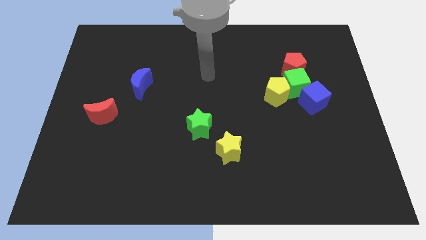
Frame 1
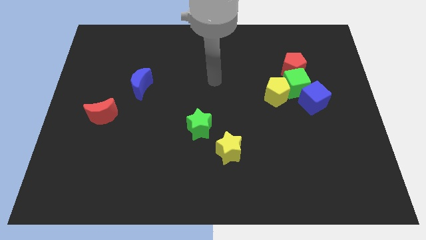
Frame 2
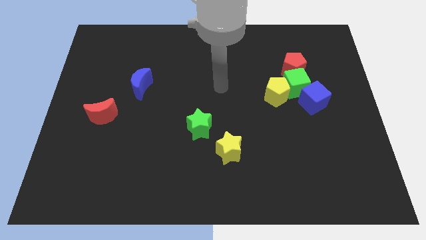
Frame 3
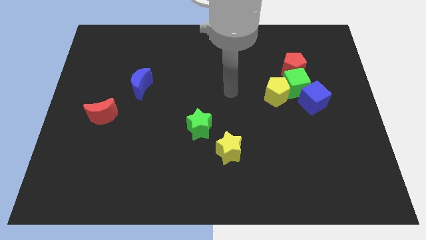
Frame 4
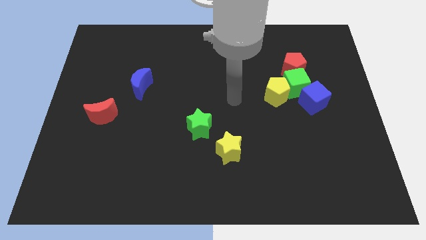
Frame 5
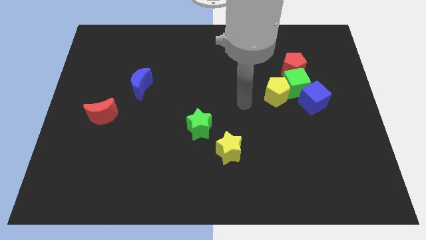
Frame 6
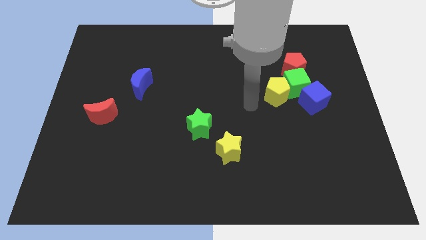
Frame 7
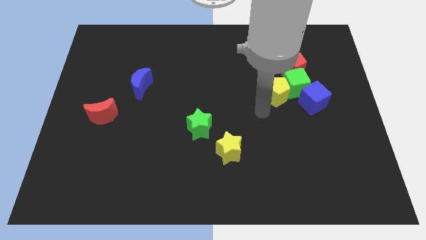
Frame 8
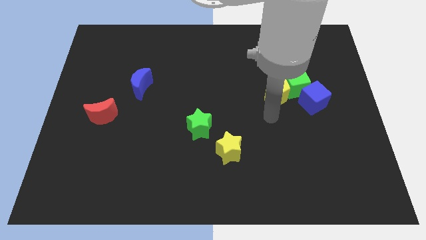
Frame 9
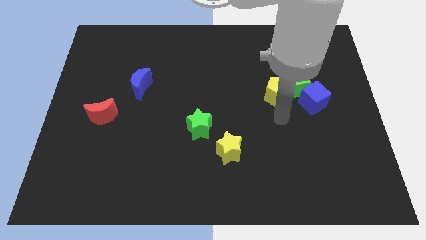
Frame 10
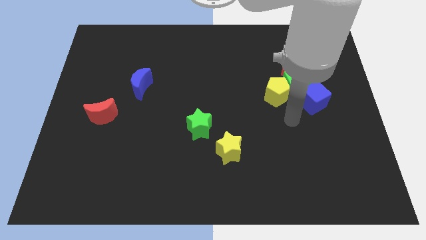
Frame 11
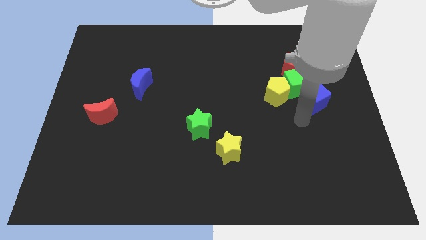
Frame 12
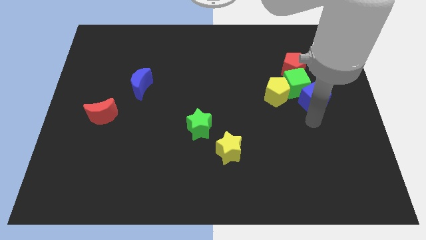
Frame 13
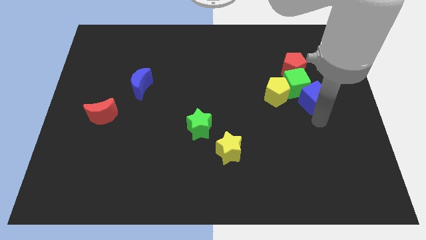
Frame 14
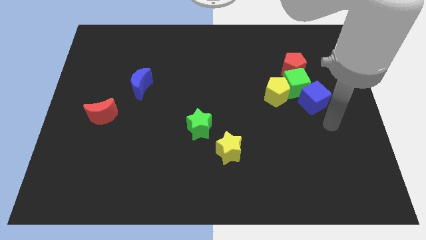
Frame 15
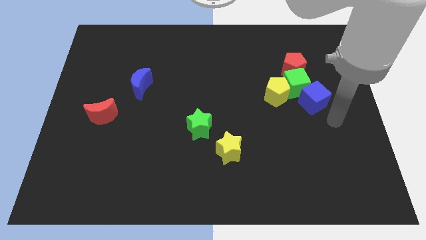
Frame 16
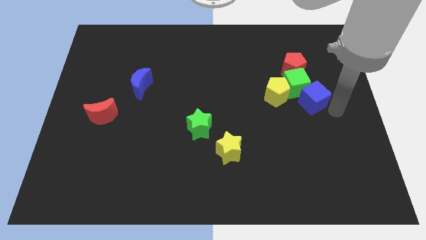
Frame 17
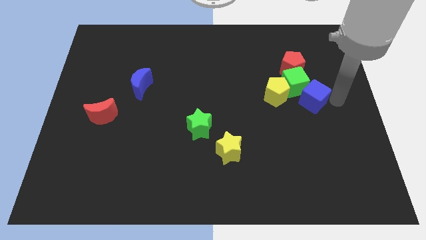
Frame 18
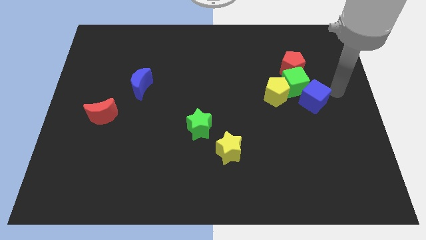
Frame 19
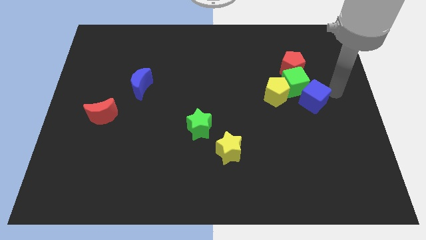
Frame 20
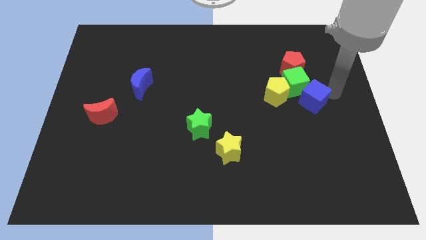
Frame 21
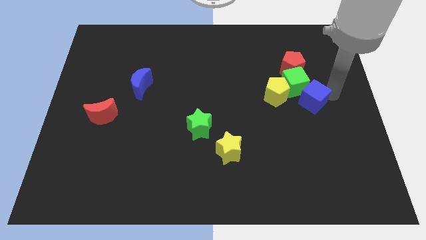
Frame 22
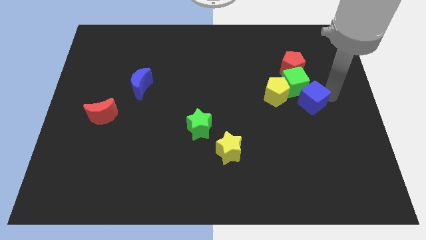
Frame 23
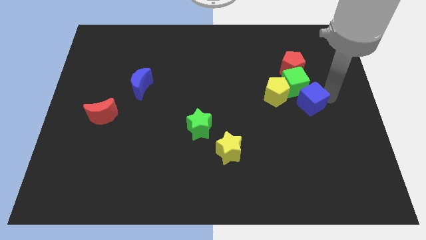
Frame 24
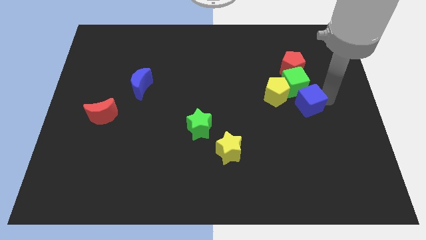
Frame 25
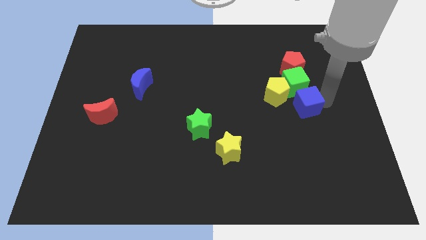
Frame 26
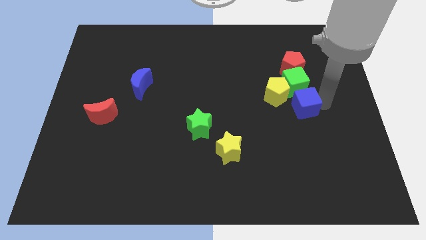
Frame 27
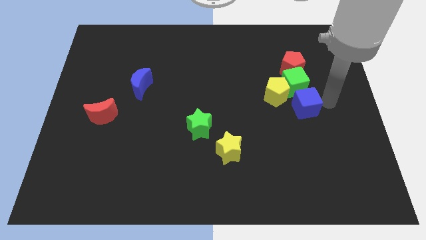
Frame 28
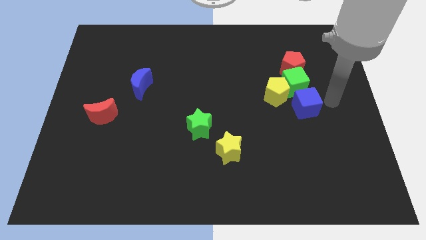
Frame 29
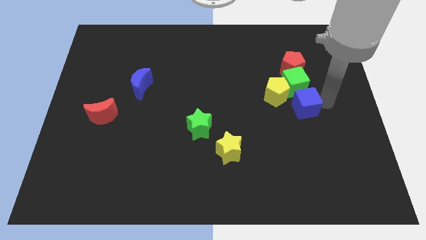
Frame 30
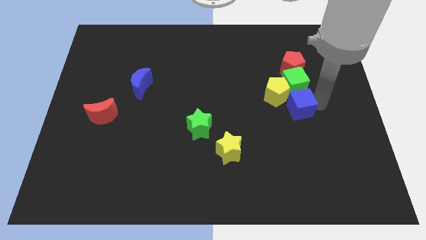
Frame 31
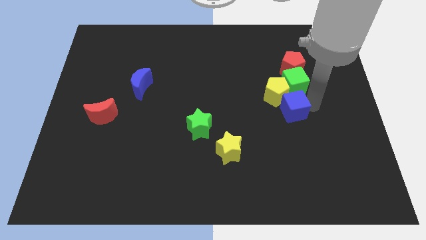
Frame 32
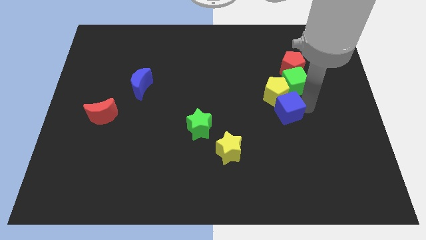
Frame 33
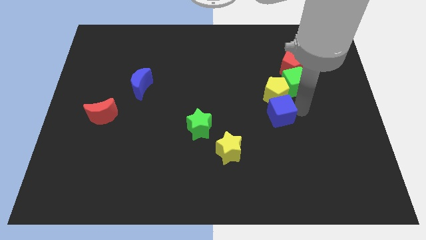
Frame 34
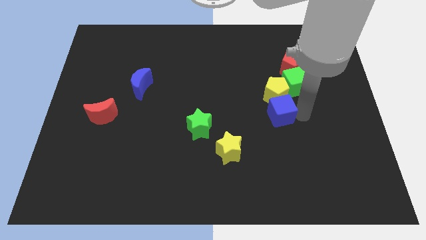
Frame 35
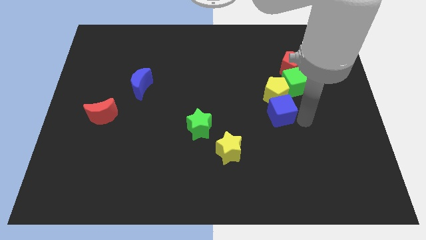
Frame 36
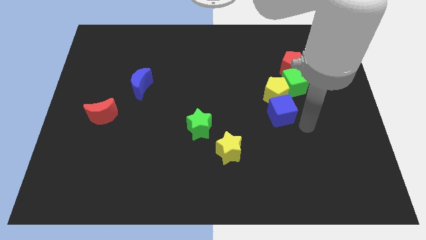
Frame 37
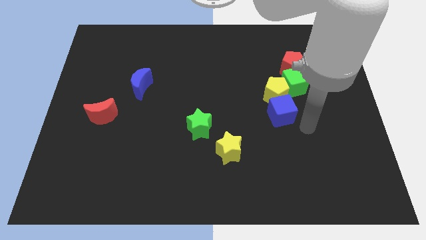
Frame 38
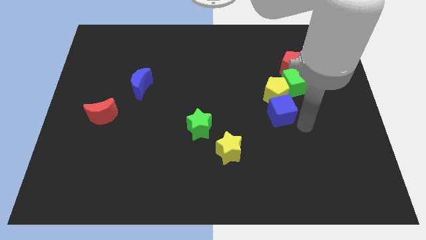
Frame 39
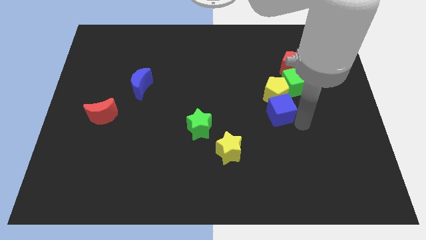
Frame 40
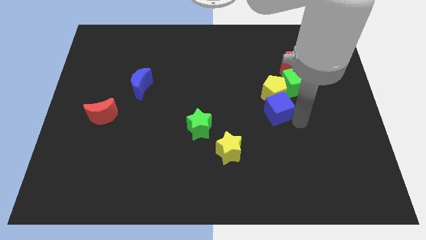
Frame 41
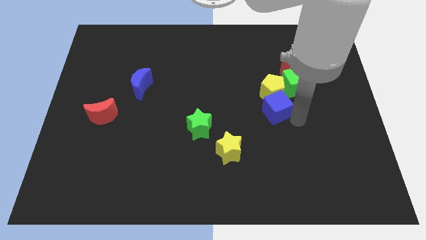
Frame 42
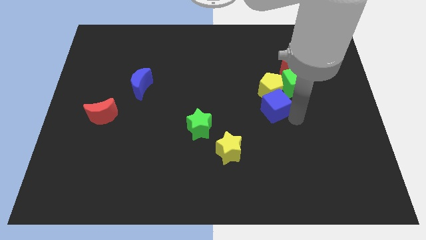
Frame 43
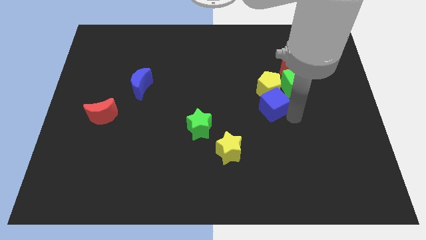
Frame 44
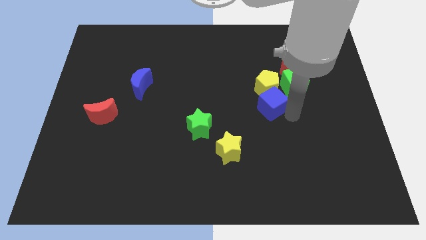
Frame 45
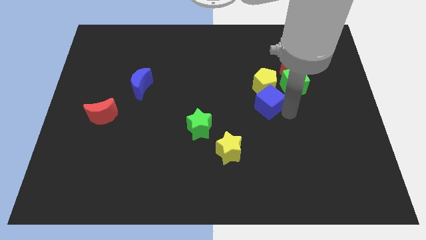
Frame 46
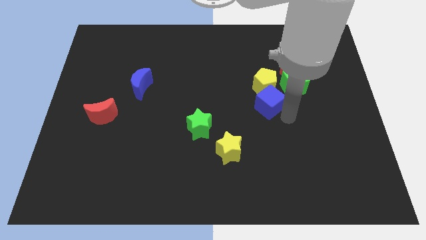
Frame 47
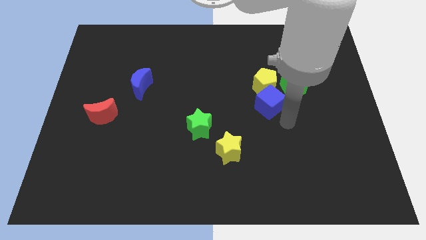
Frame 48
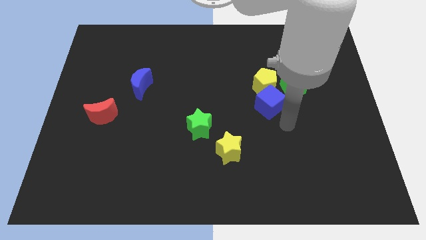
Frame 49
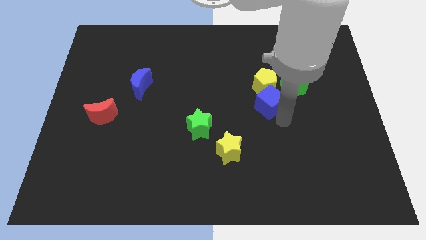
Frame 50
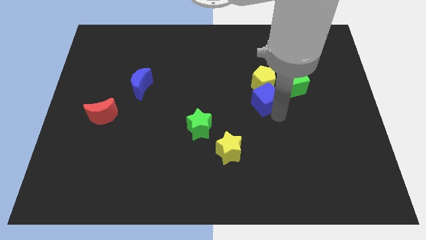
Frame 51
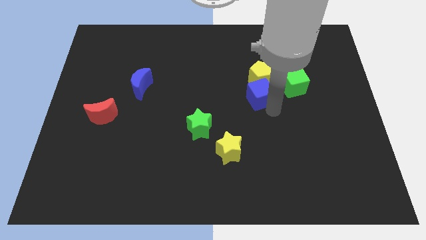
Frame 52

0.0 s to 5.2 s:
put the blue cube to the left side of the green cube

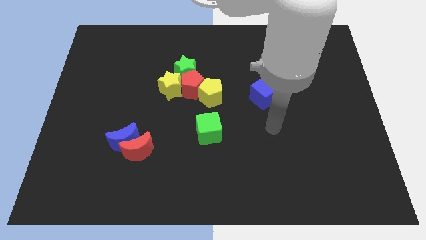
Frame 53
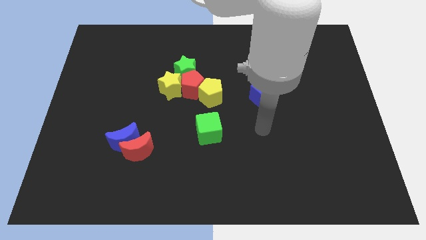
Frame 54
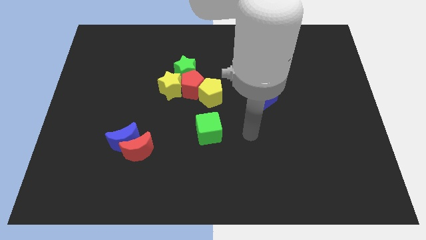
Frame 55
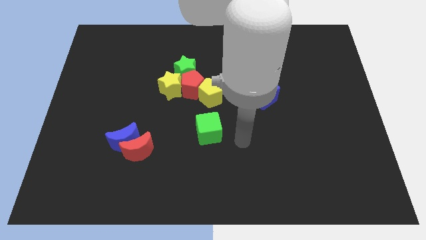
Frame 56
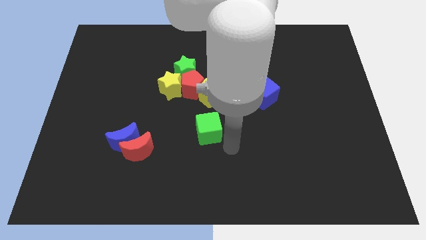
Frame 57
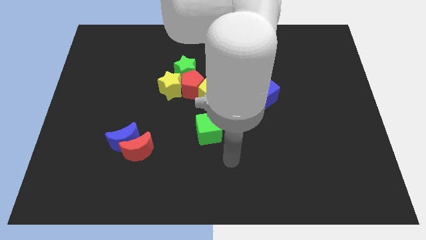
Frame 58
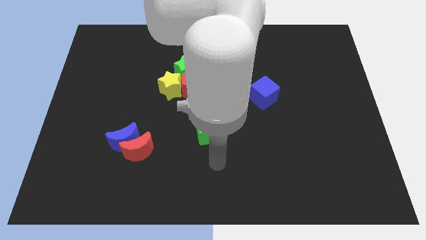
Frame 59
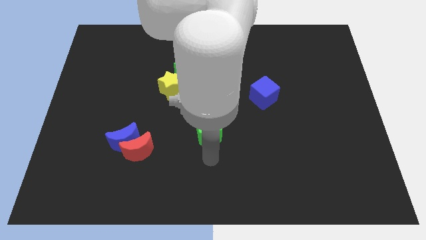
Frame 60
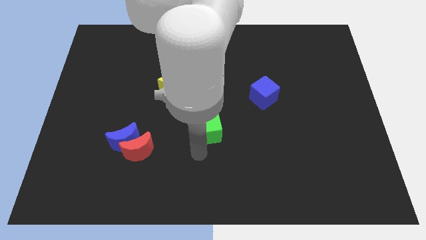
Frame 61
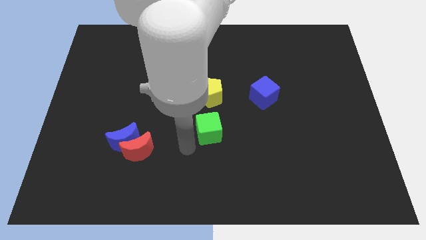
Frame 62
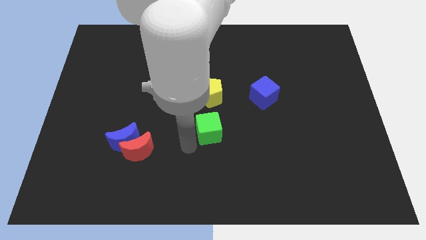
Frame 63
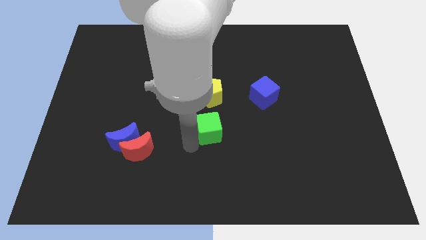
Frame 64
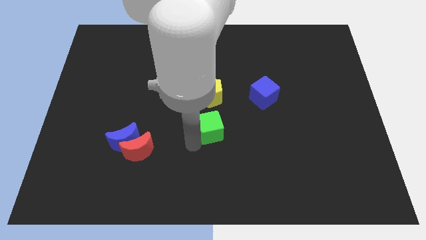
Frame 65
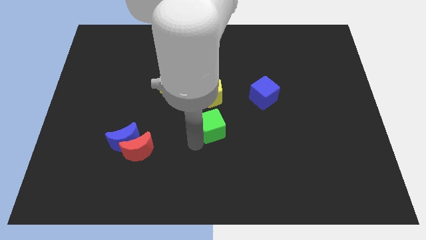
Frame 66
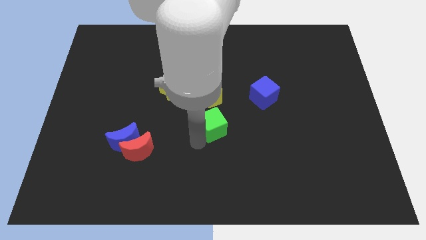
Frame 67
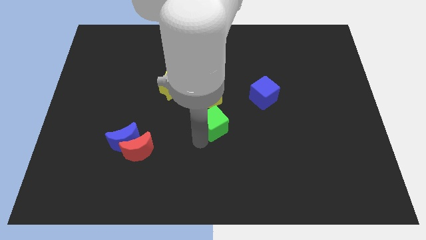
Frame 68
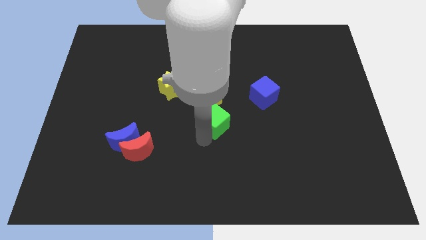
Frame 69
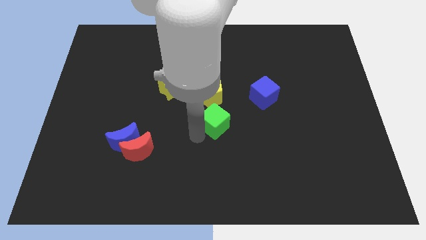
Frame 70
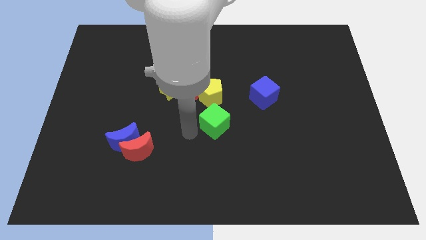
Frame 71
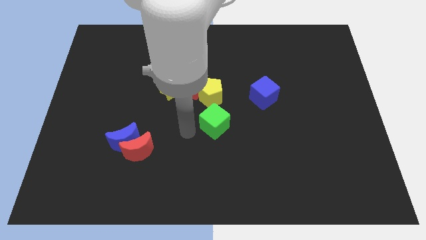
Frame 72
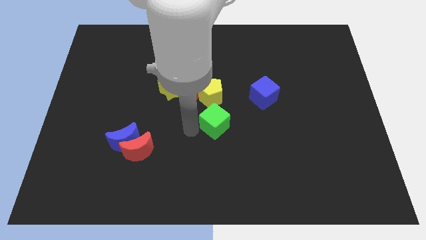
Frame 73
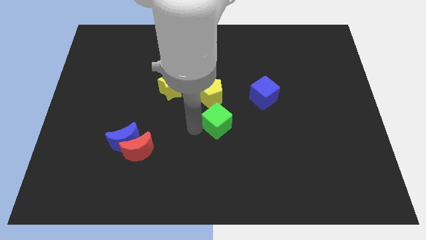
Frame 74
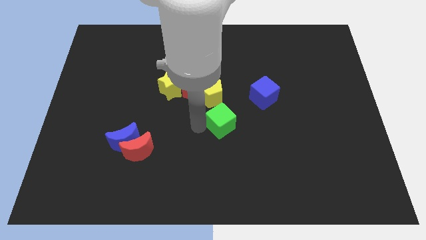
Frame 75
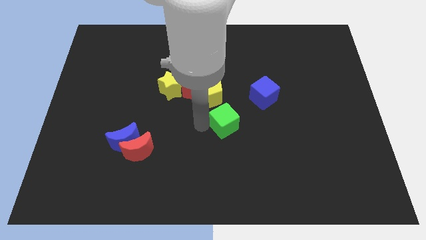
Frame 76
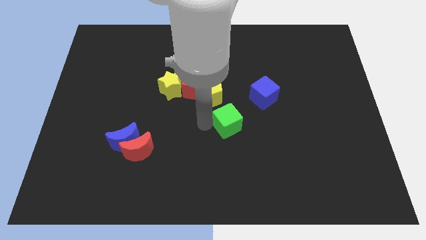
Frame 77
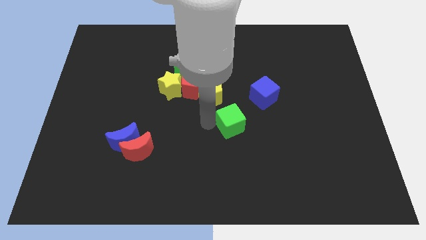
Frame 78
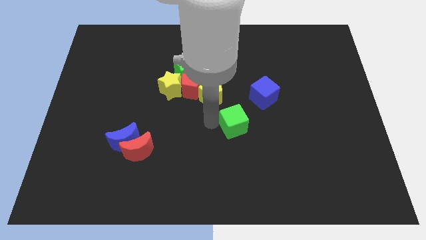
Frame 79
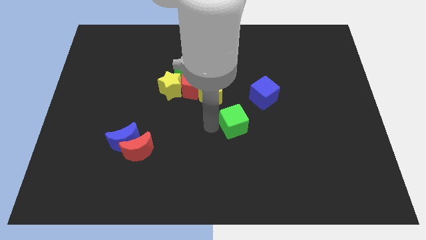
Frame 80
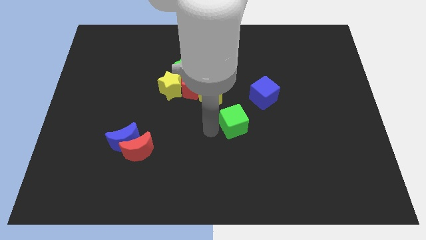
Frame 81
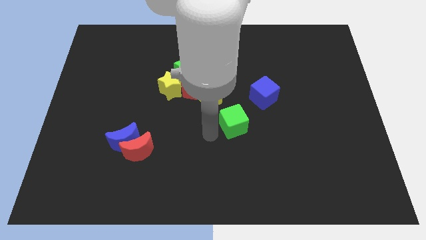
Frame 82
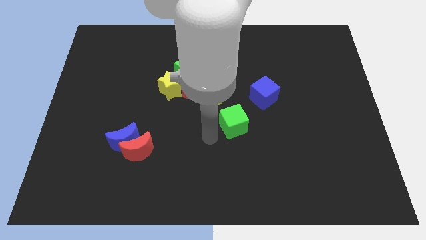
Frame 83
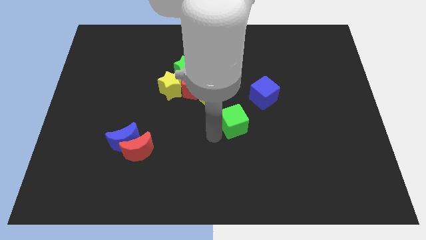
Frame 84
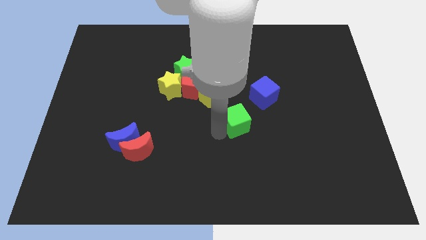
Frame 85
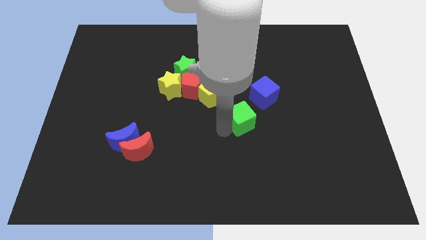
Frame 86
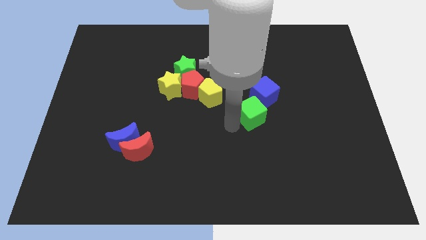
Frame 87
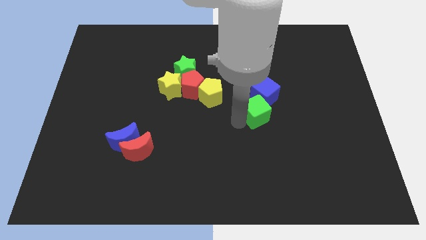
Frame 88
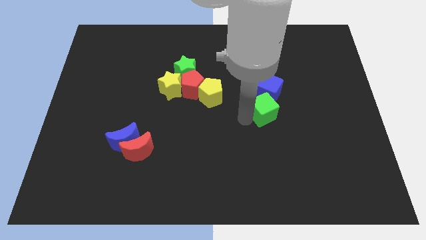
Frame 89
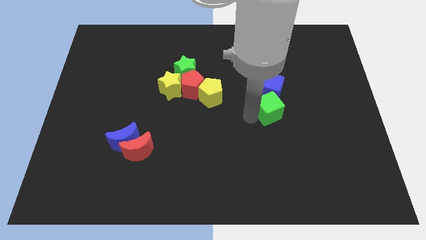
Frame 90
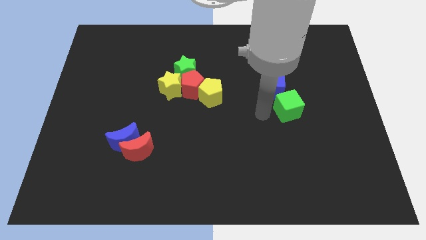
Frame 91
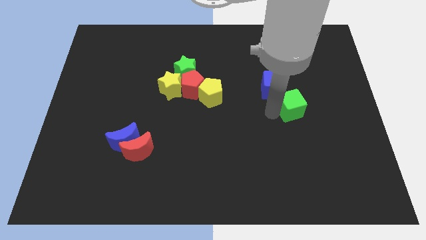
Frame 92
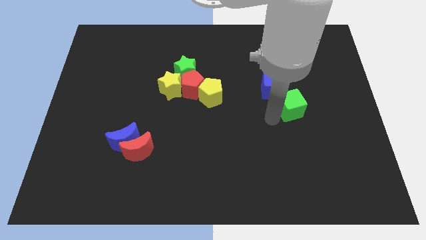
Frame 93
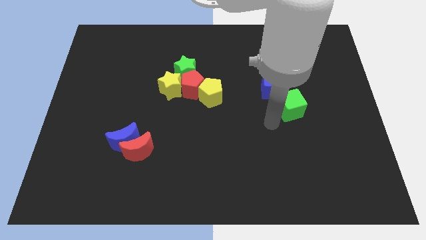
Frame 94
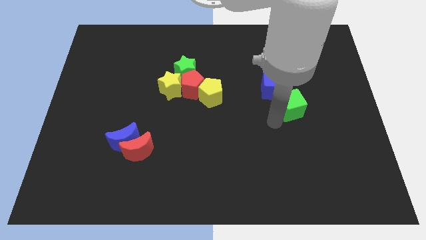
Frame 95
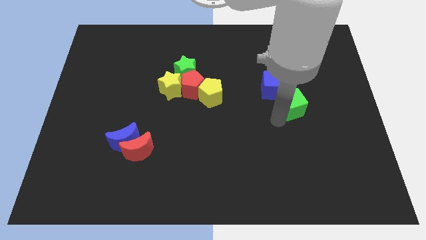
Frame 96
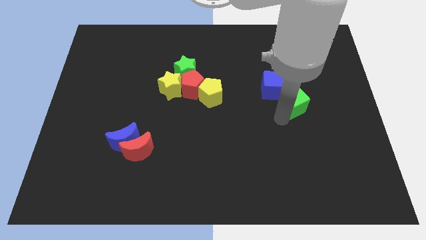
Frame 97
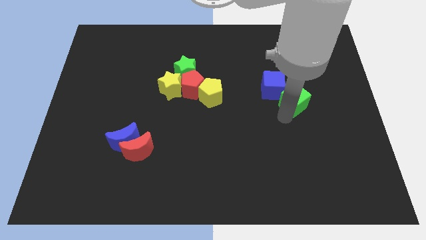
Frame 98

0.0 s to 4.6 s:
slide the green cube to the right side of the blue cube
